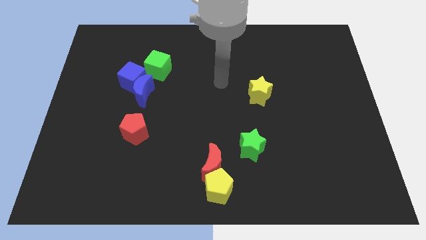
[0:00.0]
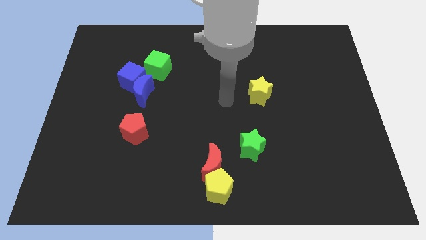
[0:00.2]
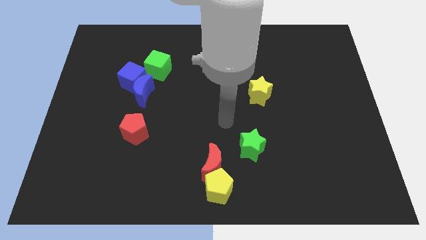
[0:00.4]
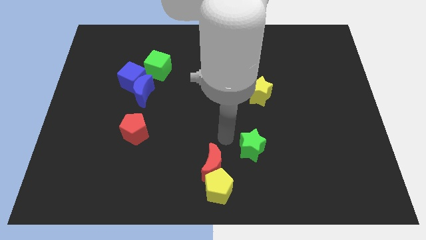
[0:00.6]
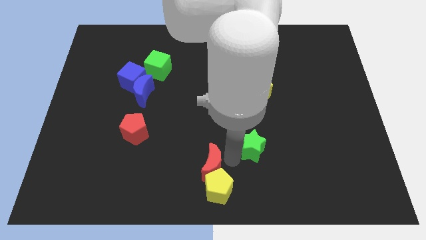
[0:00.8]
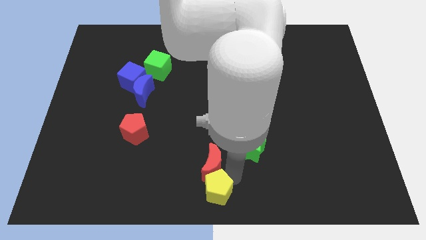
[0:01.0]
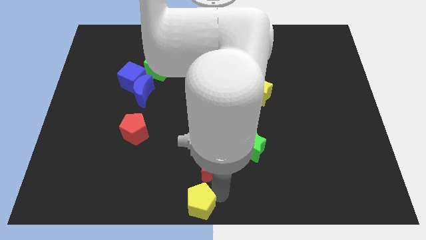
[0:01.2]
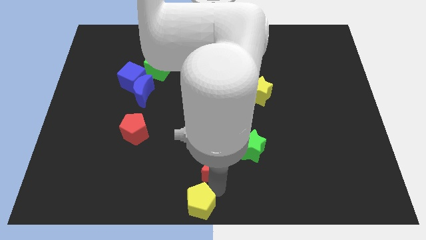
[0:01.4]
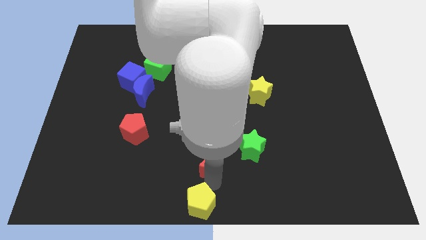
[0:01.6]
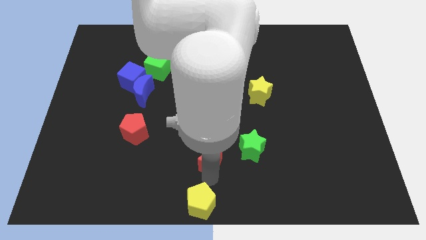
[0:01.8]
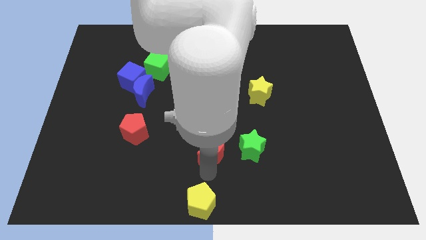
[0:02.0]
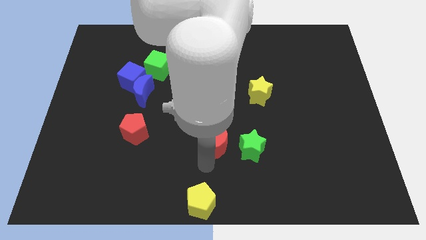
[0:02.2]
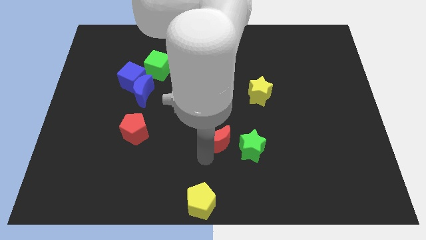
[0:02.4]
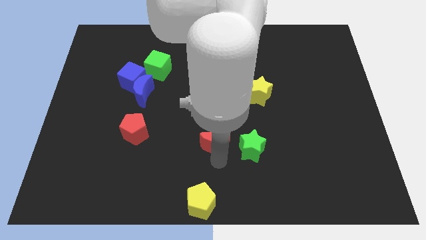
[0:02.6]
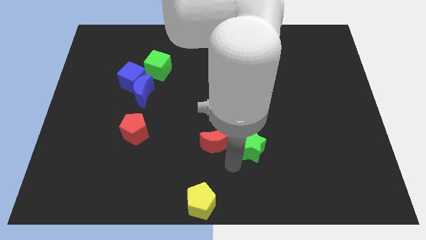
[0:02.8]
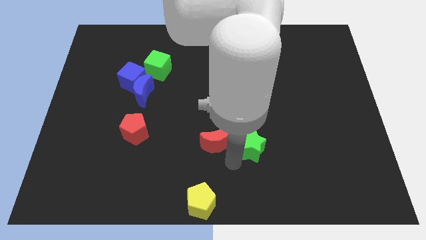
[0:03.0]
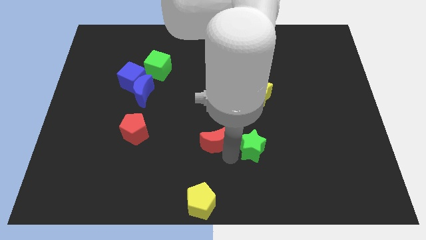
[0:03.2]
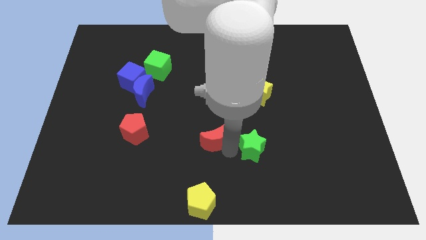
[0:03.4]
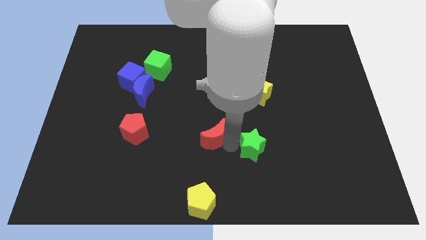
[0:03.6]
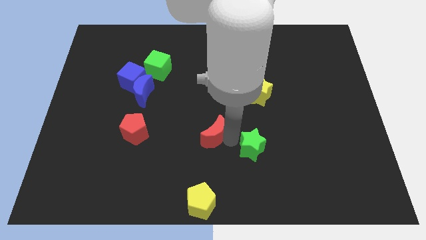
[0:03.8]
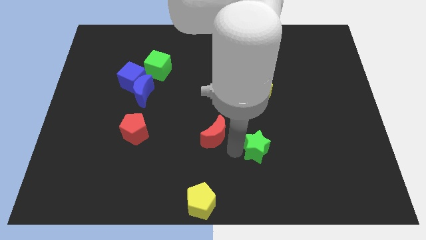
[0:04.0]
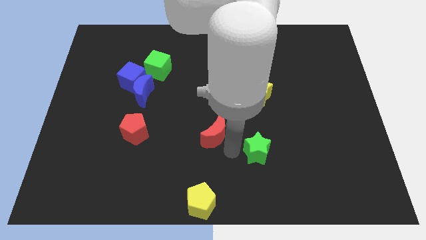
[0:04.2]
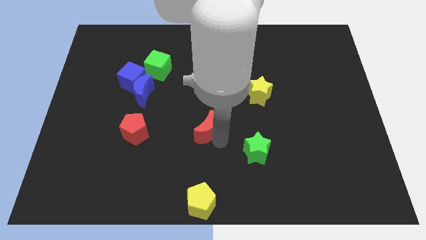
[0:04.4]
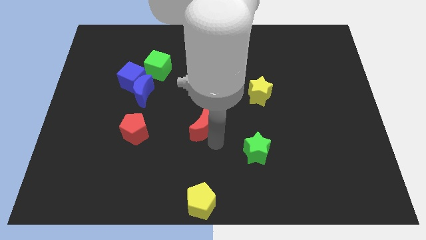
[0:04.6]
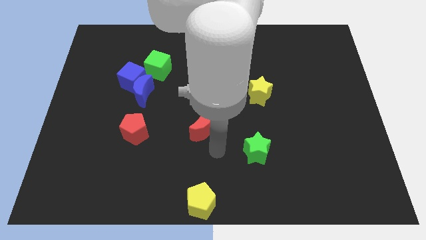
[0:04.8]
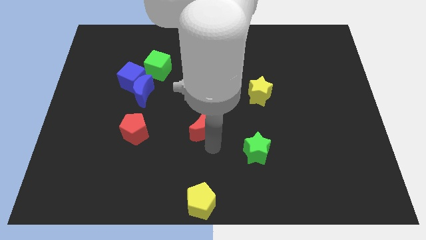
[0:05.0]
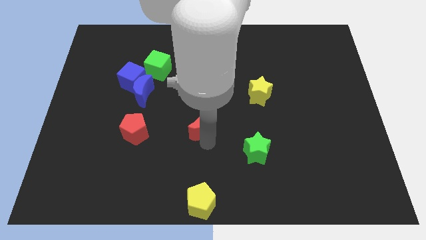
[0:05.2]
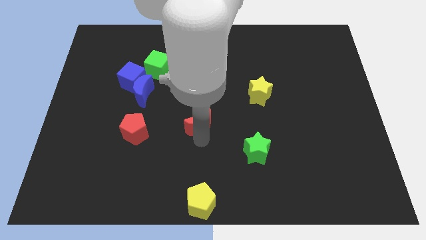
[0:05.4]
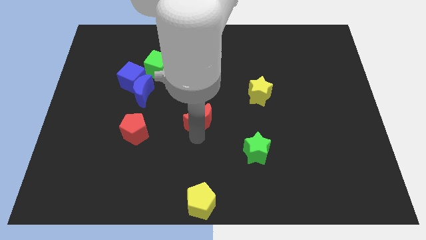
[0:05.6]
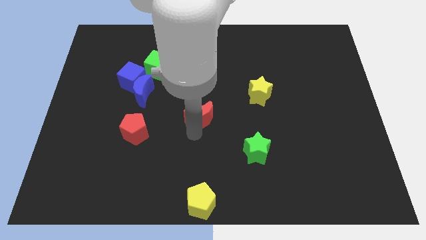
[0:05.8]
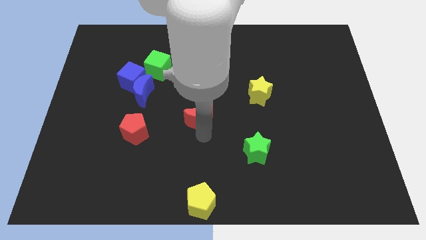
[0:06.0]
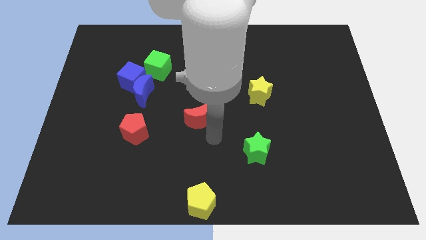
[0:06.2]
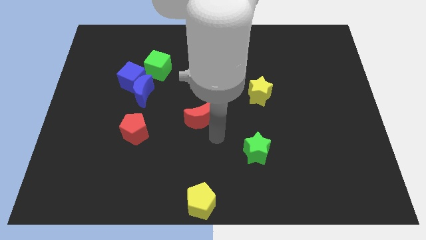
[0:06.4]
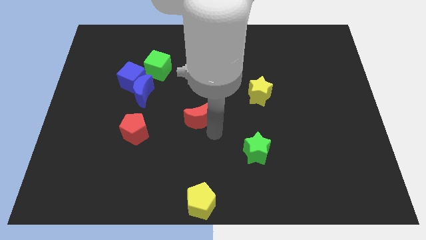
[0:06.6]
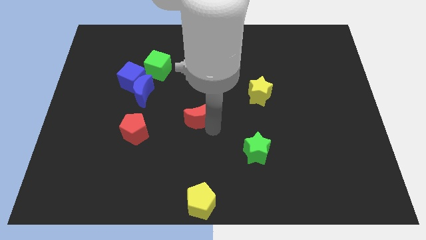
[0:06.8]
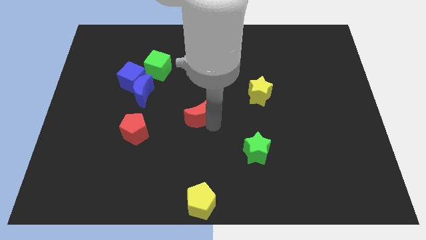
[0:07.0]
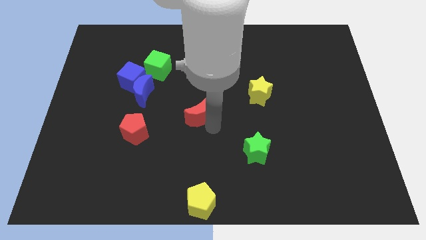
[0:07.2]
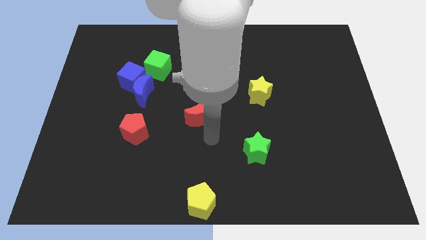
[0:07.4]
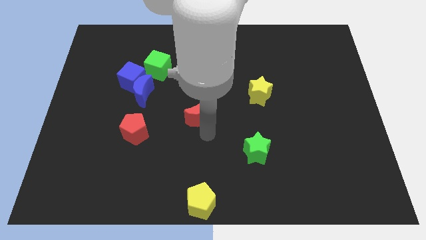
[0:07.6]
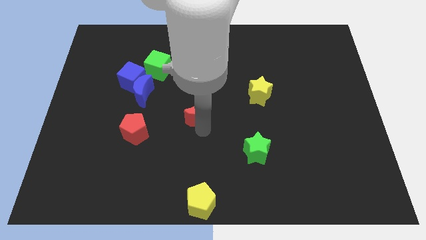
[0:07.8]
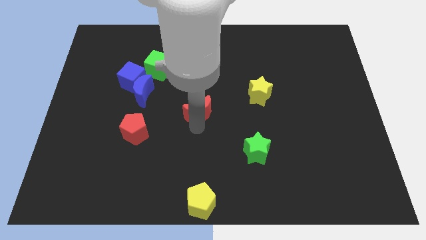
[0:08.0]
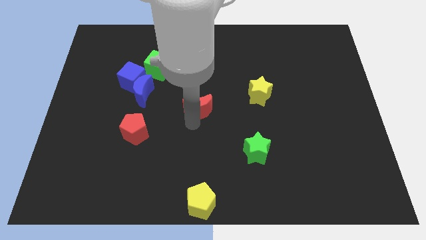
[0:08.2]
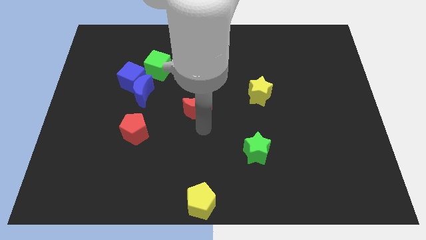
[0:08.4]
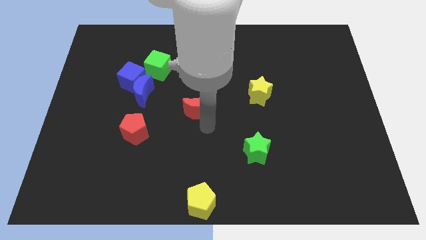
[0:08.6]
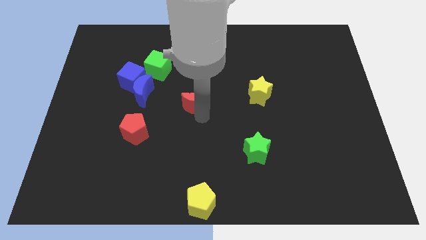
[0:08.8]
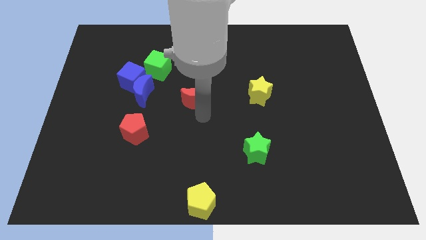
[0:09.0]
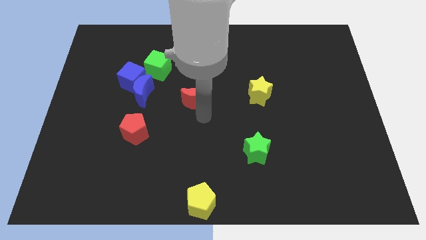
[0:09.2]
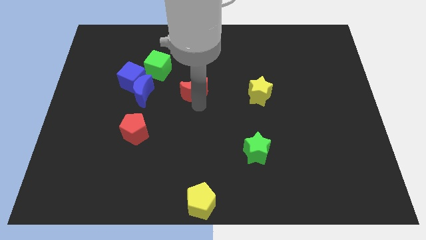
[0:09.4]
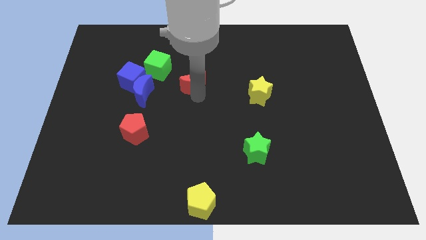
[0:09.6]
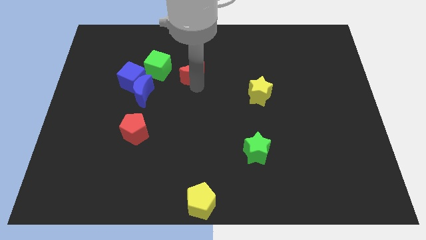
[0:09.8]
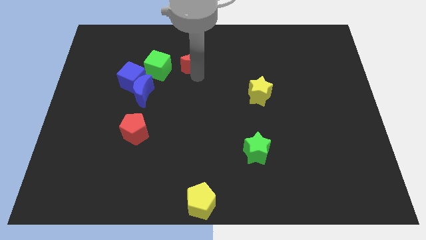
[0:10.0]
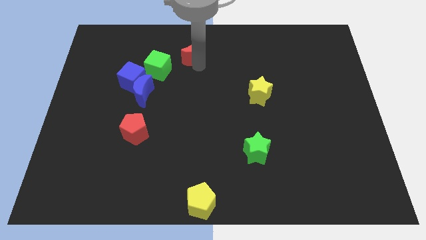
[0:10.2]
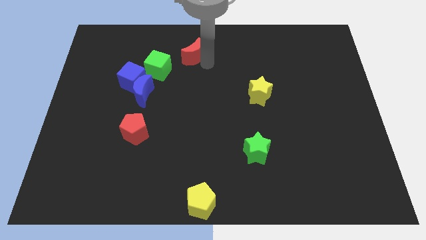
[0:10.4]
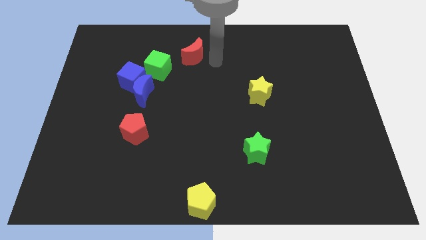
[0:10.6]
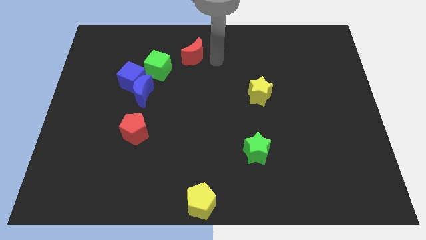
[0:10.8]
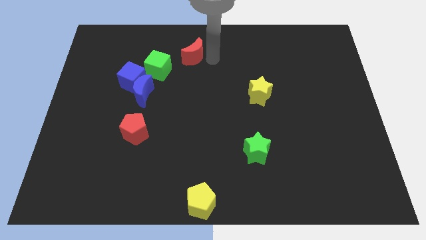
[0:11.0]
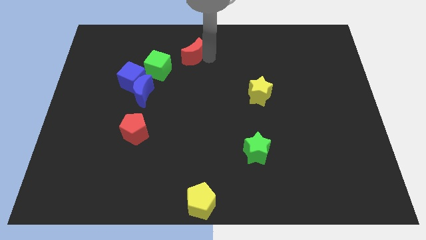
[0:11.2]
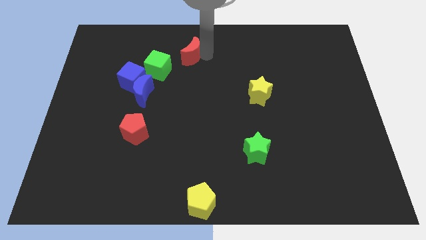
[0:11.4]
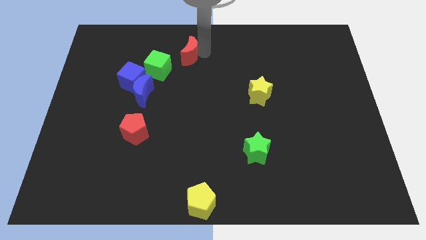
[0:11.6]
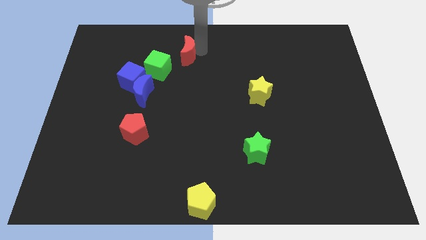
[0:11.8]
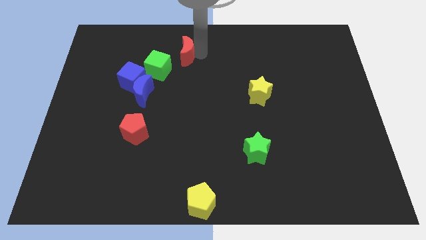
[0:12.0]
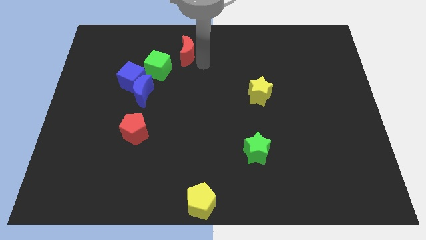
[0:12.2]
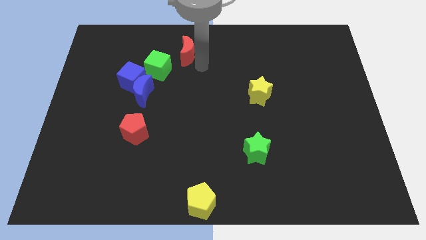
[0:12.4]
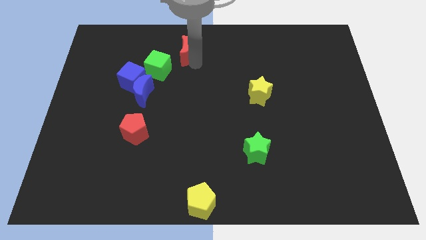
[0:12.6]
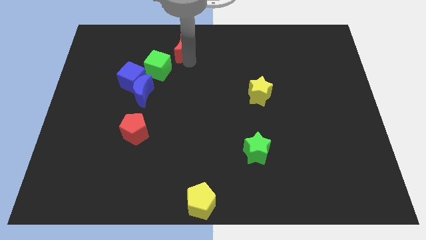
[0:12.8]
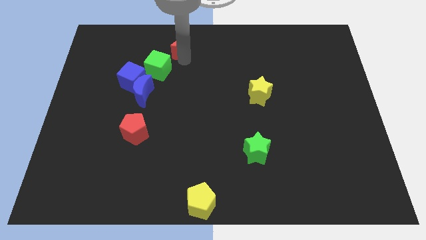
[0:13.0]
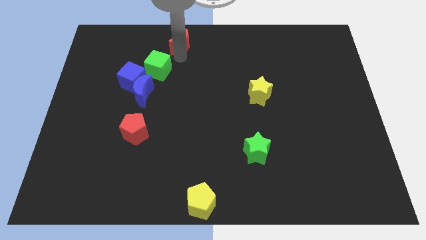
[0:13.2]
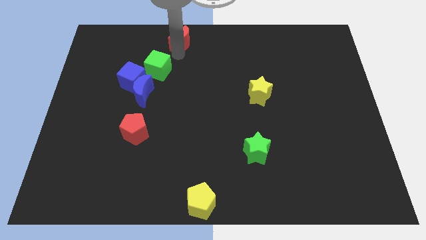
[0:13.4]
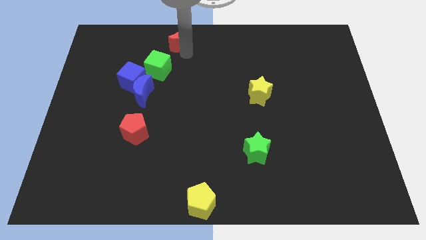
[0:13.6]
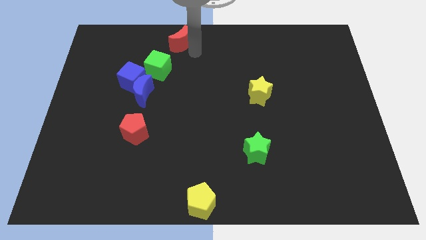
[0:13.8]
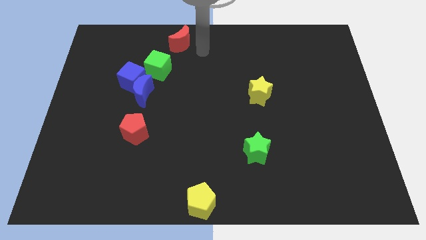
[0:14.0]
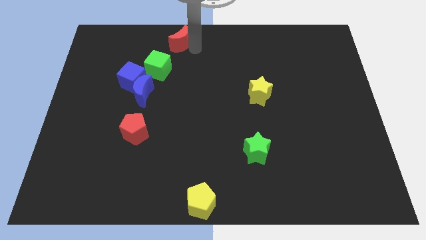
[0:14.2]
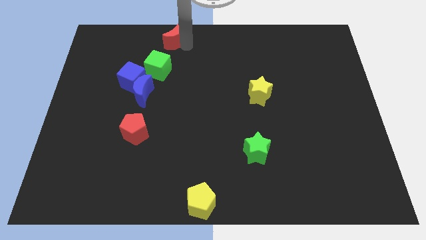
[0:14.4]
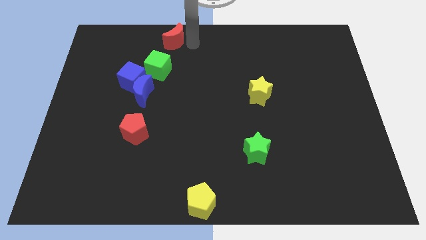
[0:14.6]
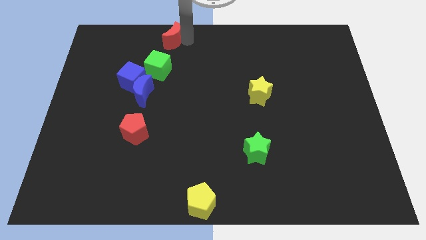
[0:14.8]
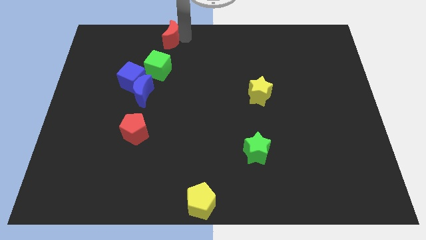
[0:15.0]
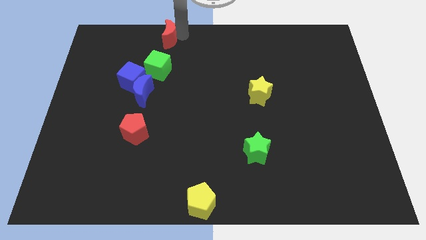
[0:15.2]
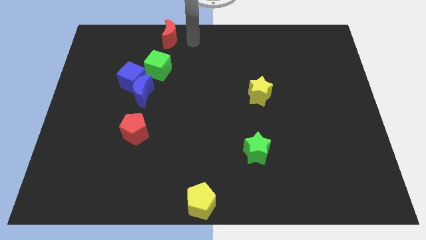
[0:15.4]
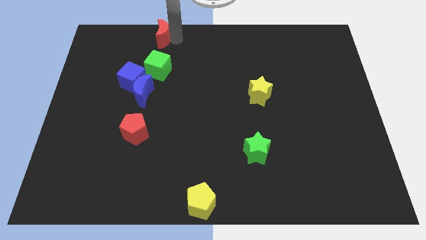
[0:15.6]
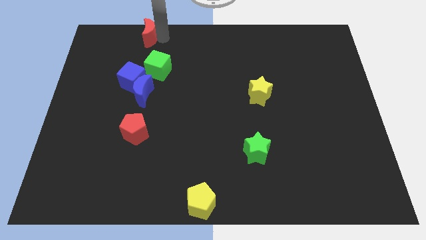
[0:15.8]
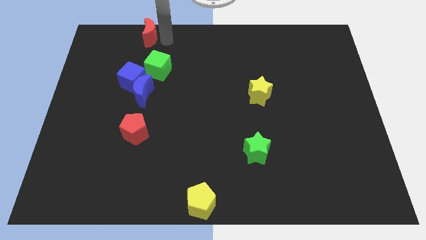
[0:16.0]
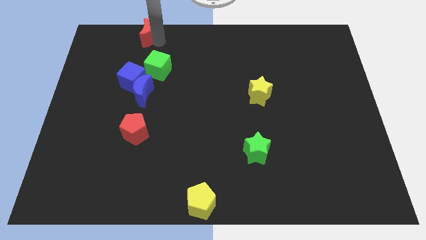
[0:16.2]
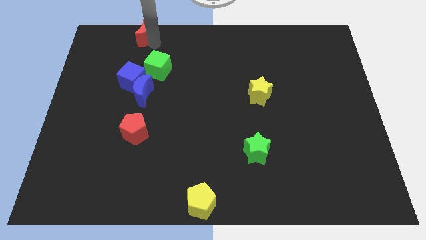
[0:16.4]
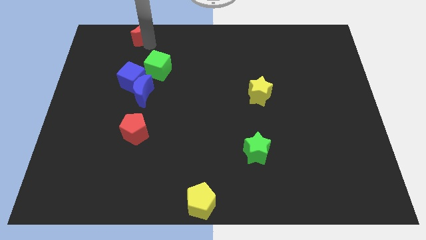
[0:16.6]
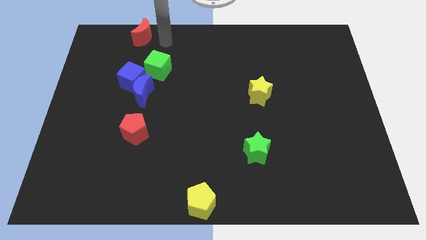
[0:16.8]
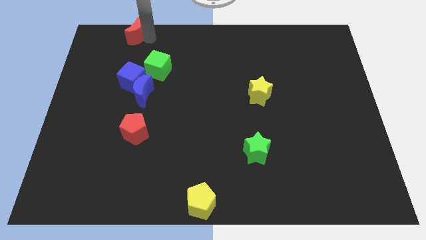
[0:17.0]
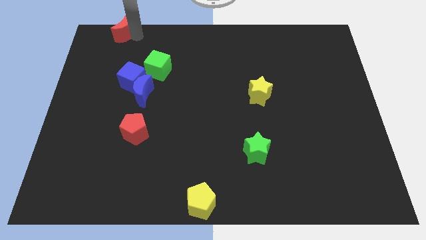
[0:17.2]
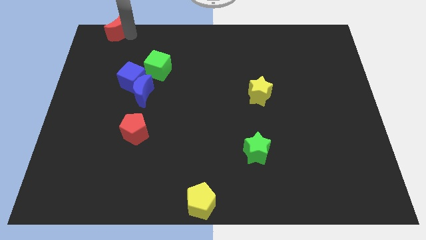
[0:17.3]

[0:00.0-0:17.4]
put the red moon to the top left of the board
